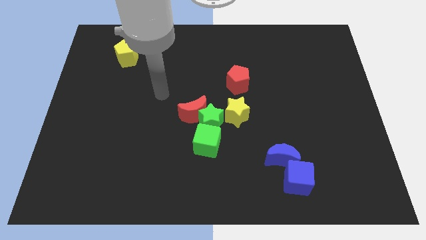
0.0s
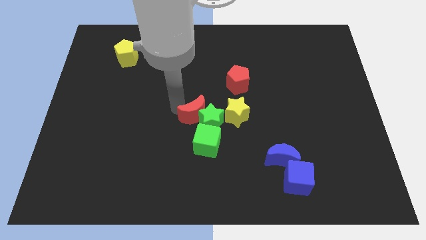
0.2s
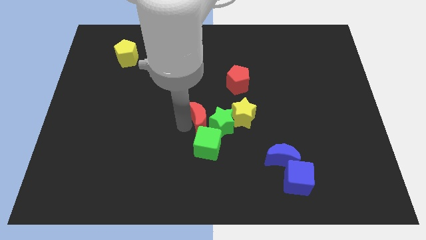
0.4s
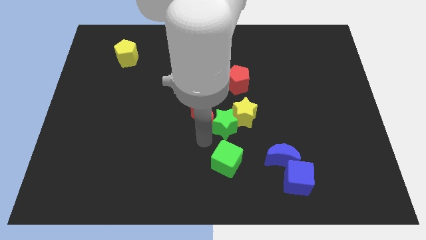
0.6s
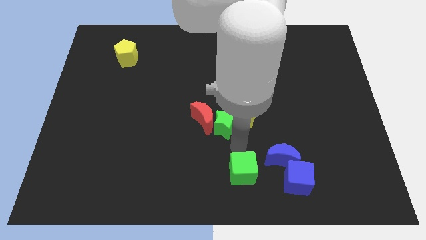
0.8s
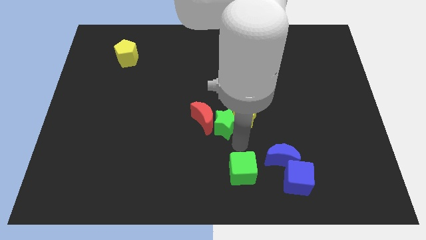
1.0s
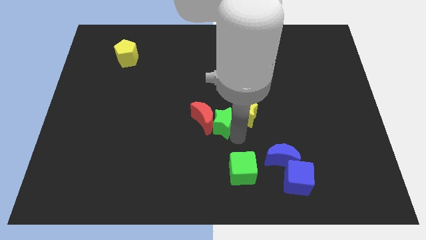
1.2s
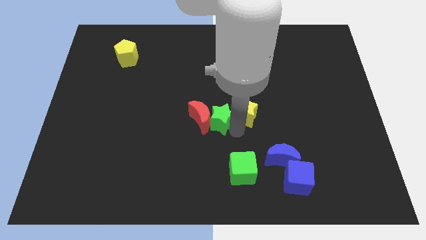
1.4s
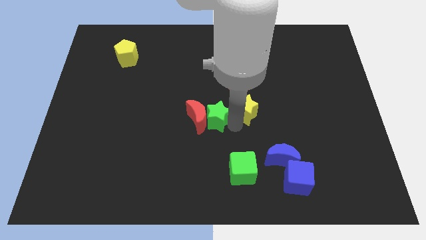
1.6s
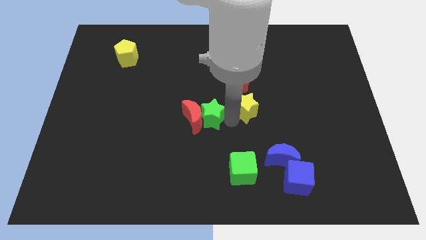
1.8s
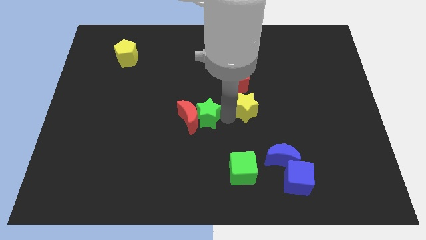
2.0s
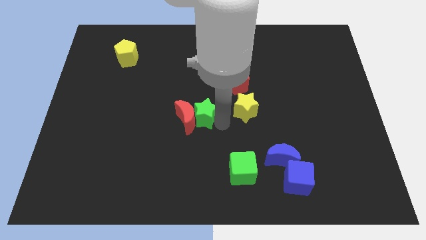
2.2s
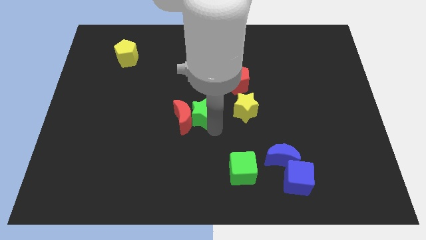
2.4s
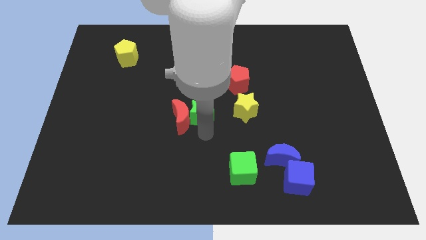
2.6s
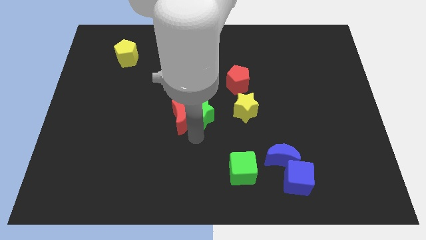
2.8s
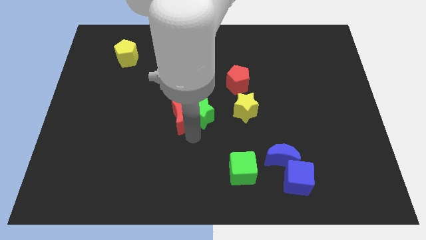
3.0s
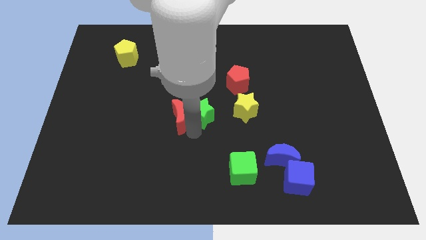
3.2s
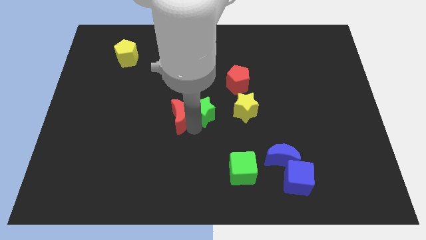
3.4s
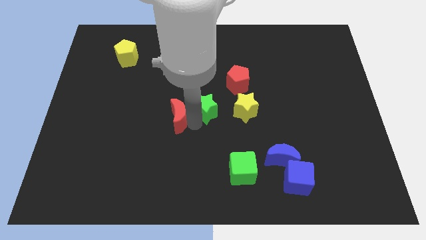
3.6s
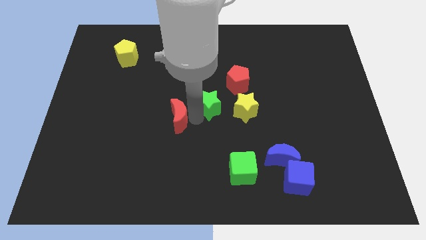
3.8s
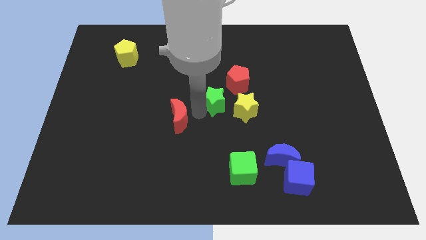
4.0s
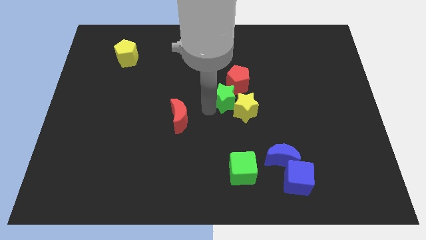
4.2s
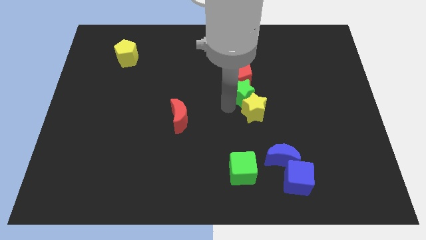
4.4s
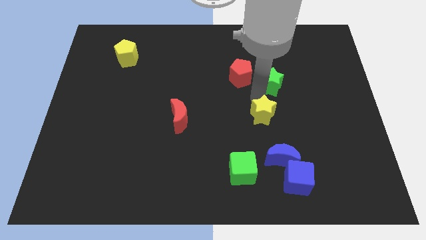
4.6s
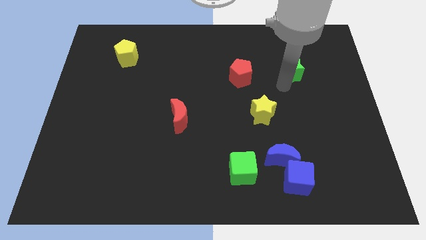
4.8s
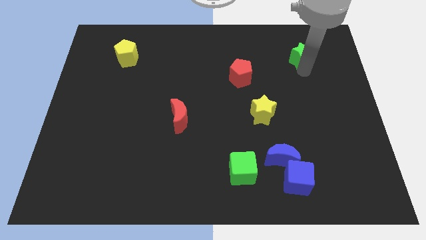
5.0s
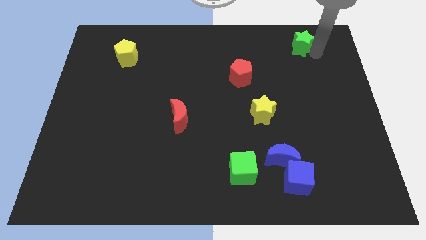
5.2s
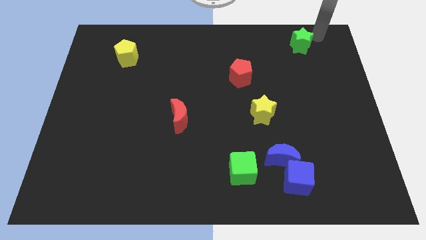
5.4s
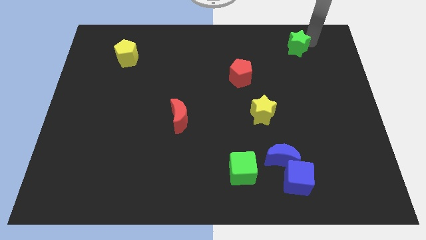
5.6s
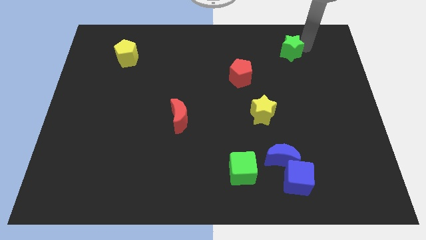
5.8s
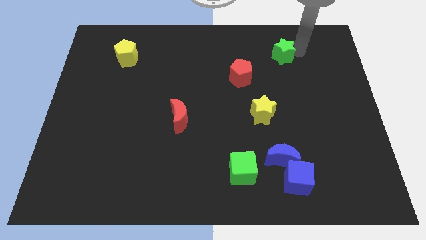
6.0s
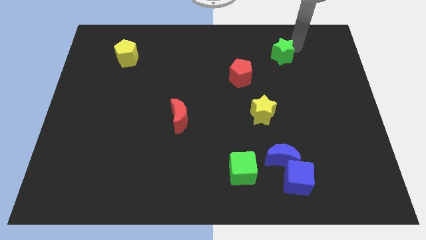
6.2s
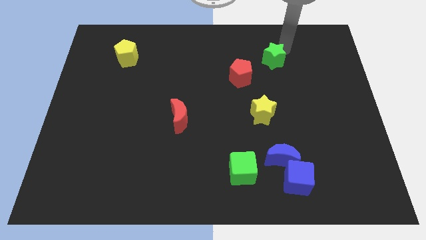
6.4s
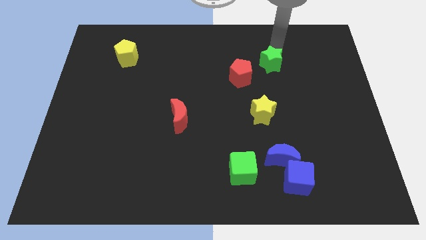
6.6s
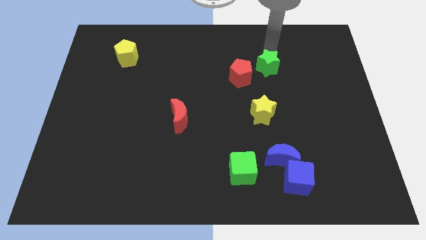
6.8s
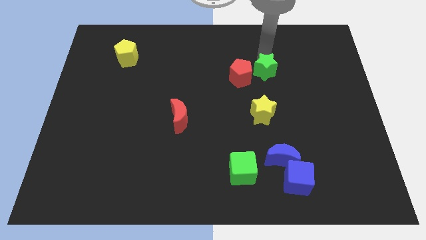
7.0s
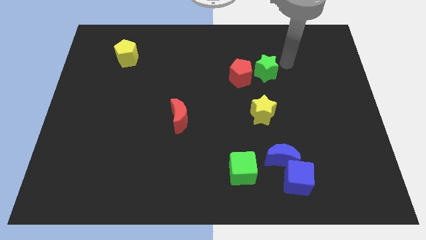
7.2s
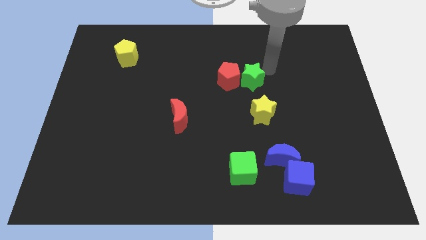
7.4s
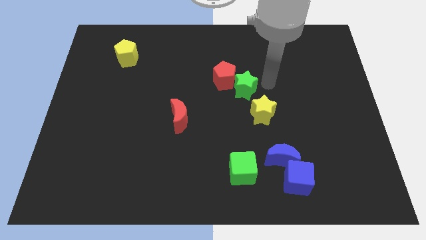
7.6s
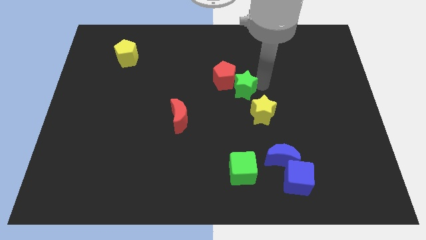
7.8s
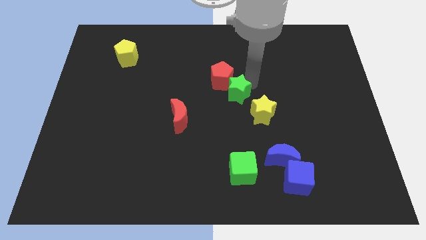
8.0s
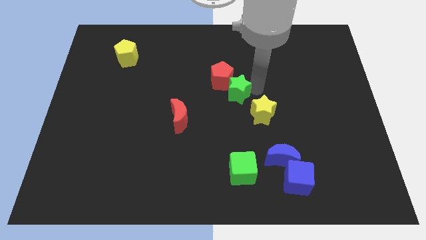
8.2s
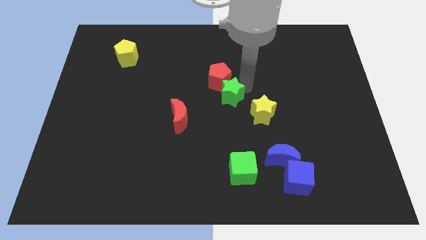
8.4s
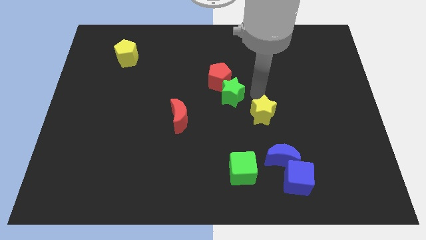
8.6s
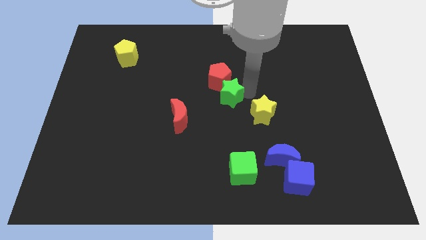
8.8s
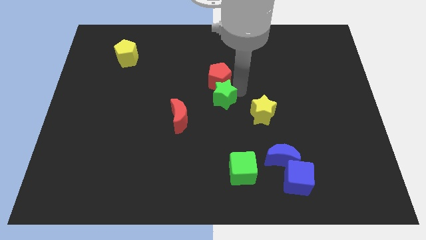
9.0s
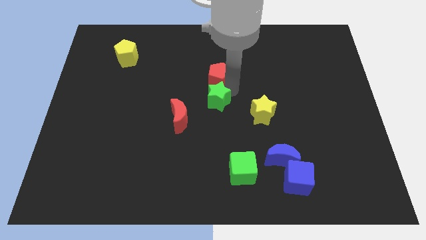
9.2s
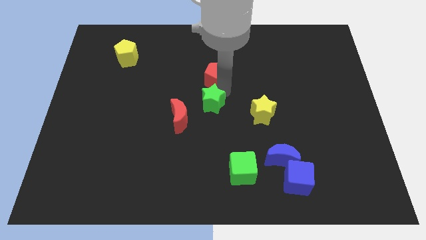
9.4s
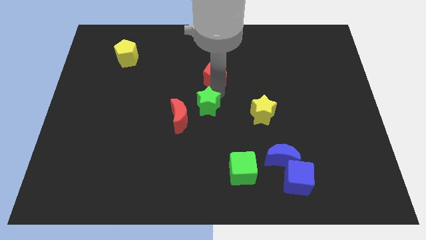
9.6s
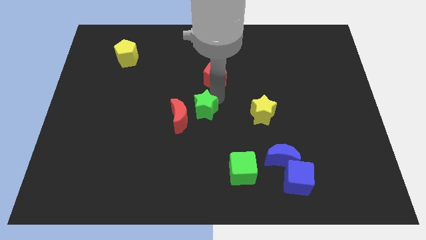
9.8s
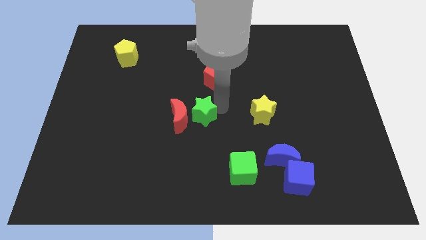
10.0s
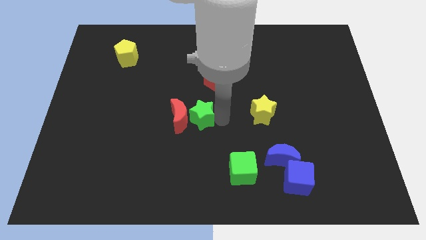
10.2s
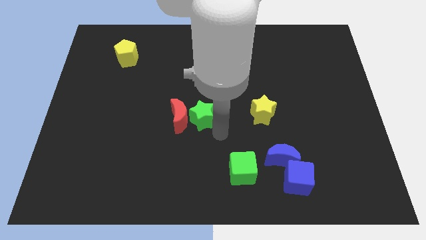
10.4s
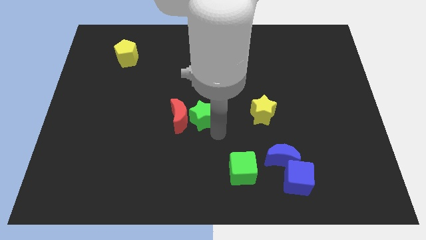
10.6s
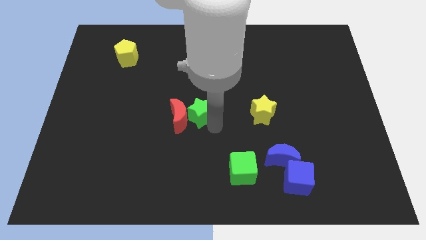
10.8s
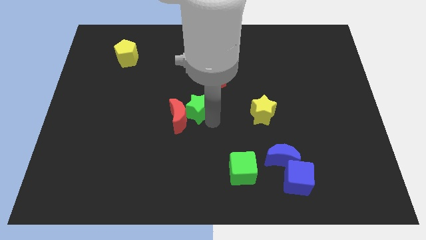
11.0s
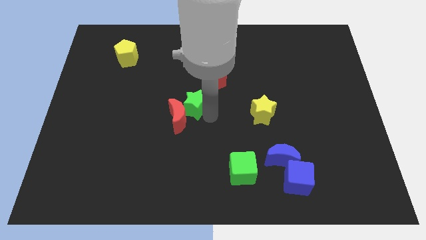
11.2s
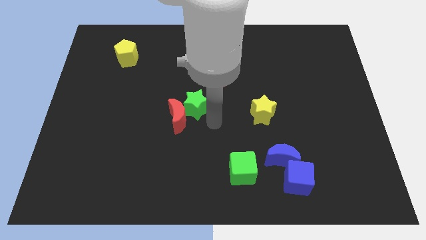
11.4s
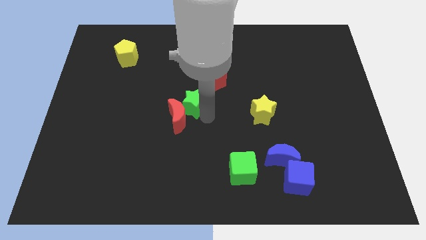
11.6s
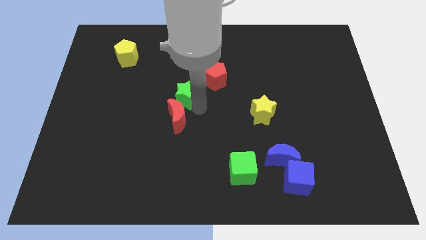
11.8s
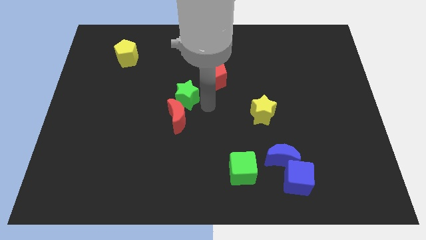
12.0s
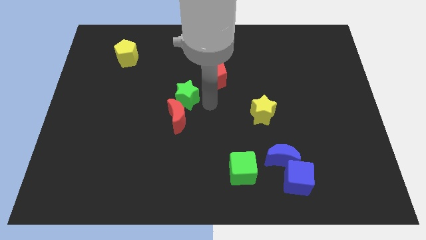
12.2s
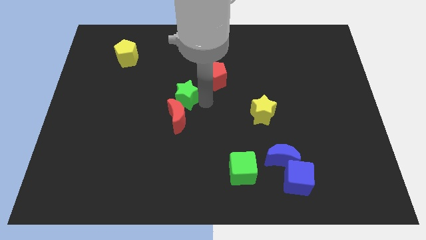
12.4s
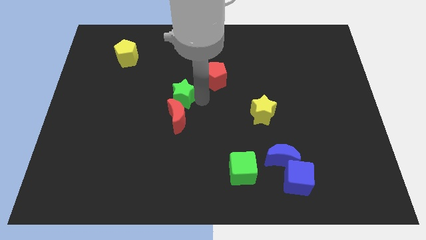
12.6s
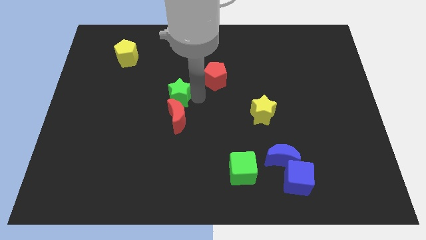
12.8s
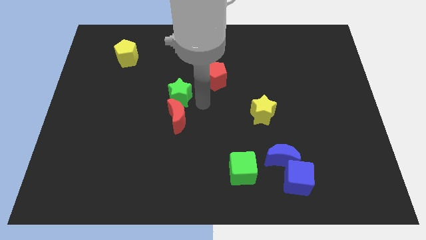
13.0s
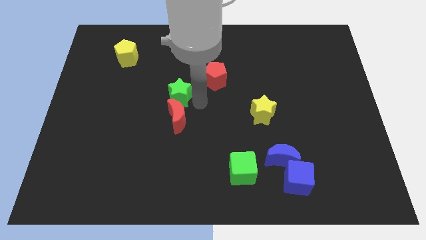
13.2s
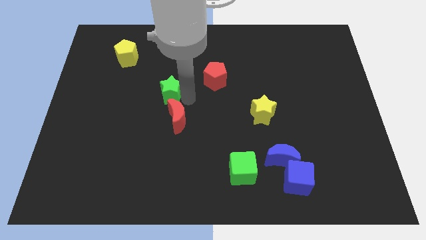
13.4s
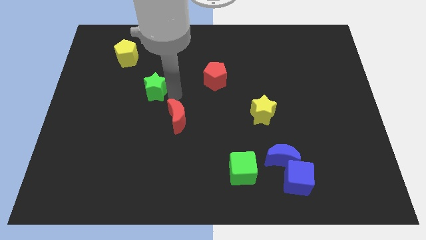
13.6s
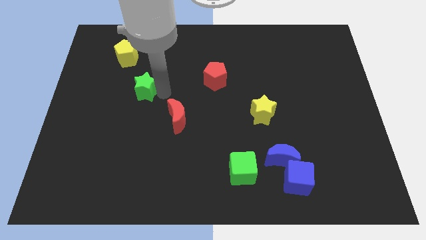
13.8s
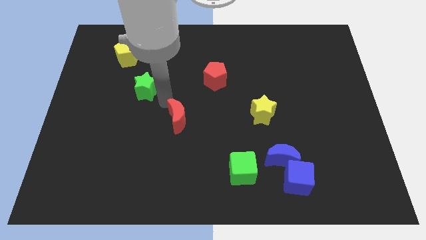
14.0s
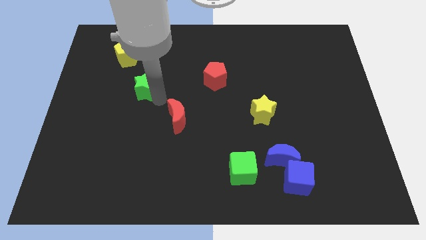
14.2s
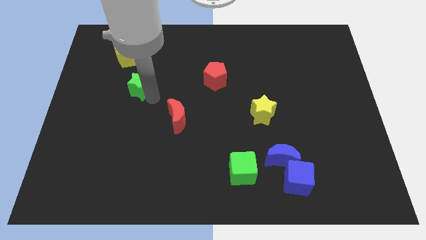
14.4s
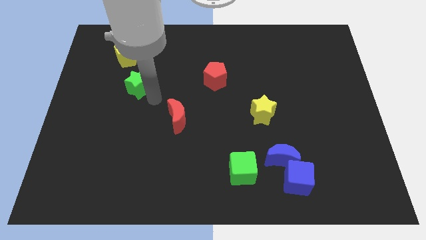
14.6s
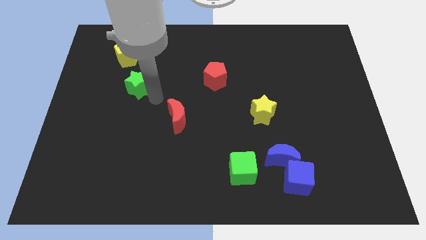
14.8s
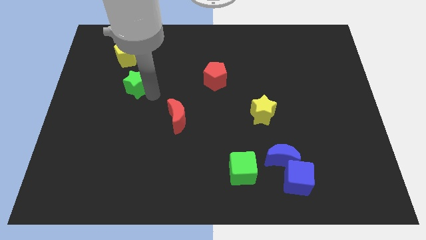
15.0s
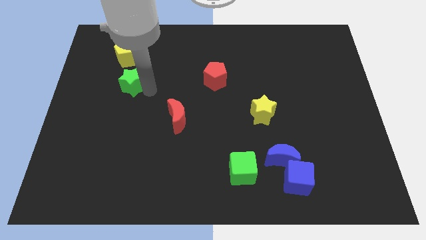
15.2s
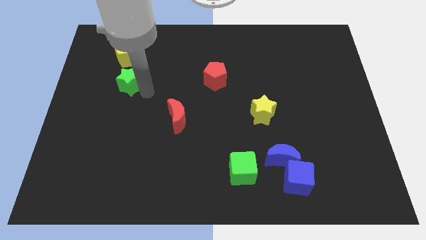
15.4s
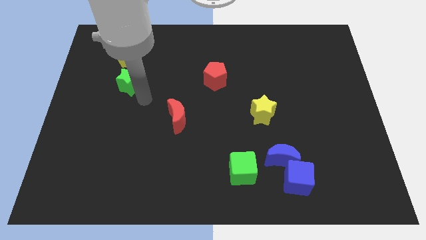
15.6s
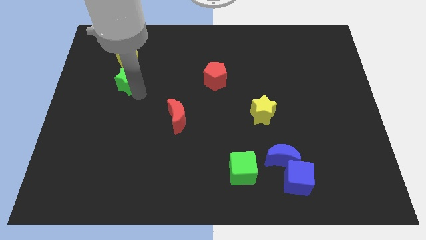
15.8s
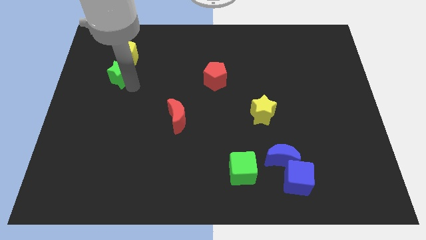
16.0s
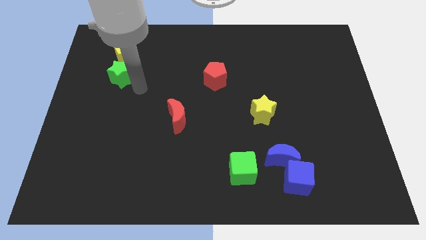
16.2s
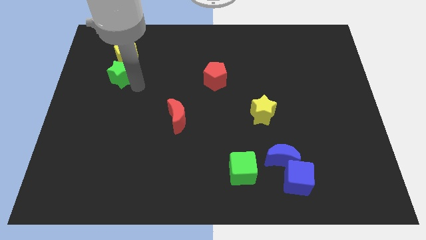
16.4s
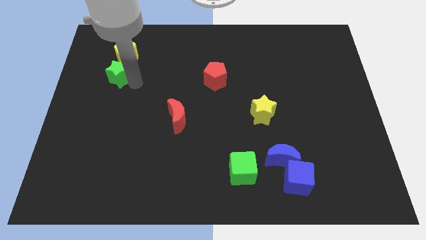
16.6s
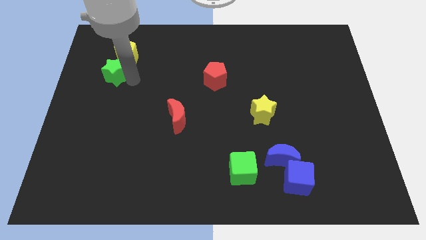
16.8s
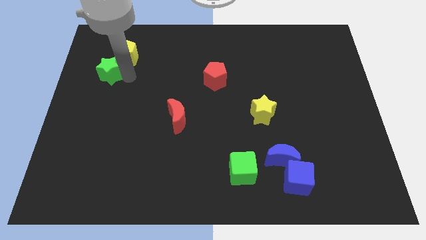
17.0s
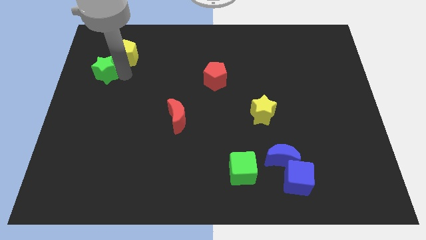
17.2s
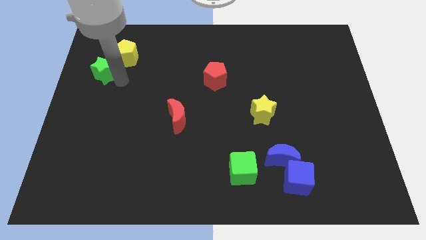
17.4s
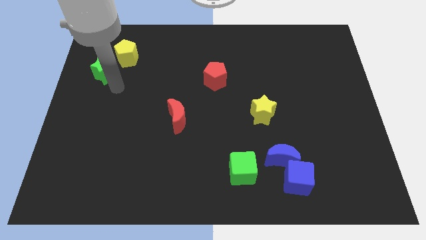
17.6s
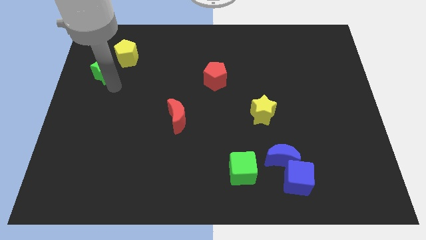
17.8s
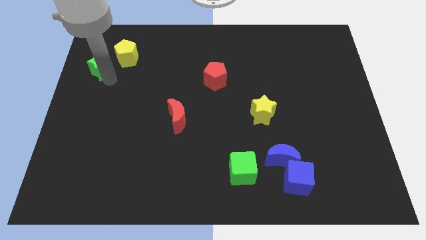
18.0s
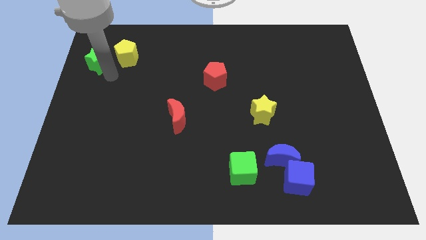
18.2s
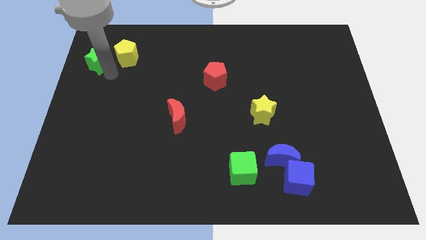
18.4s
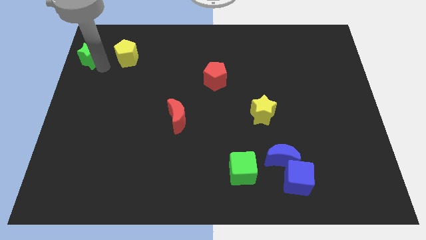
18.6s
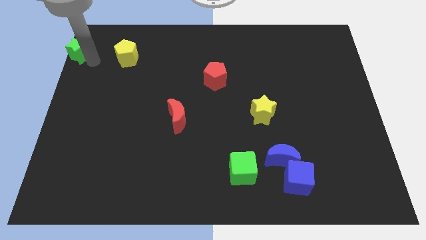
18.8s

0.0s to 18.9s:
push the green star to the top left corner
